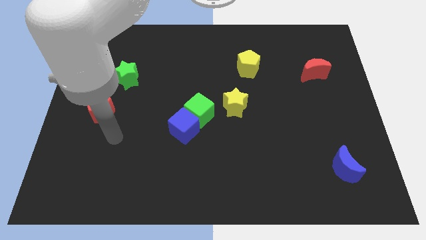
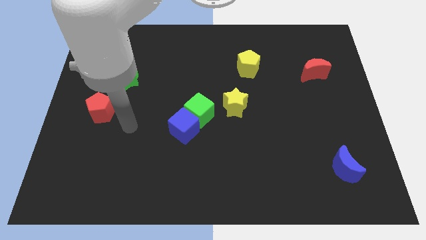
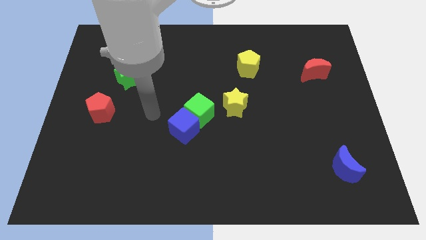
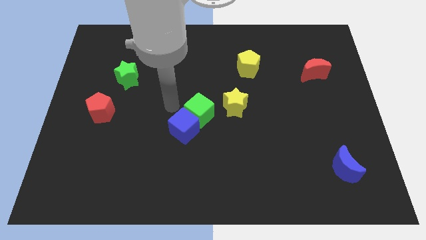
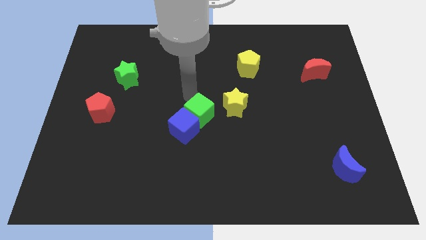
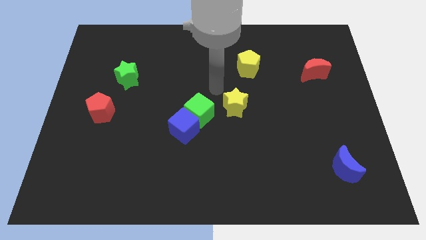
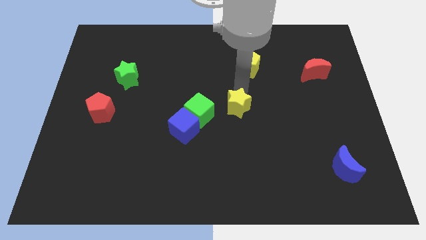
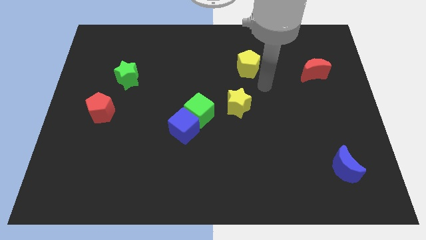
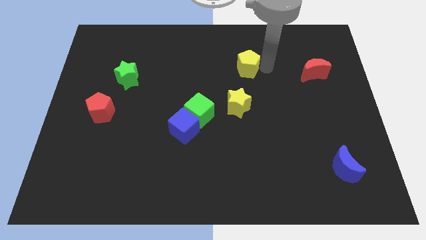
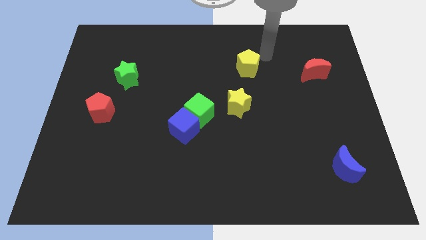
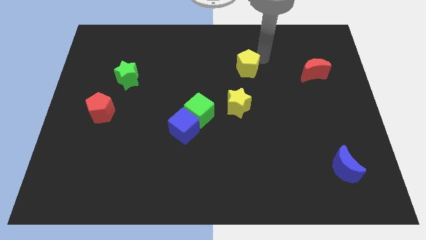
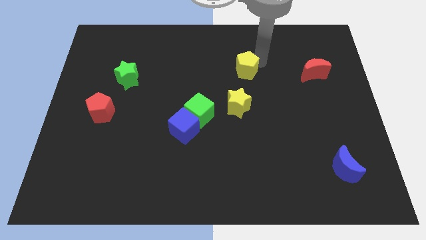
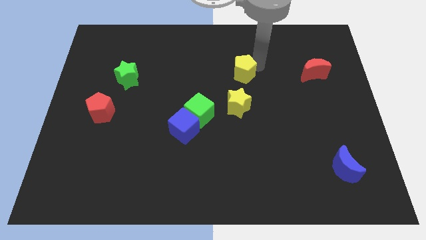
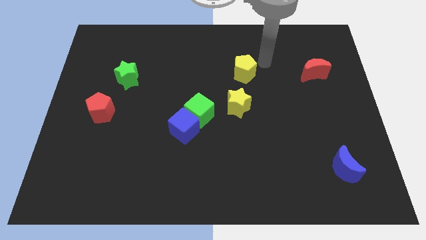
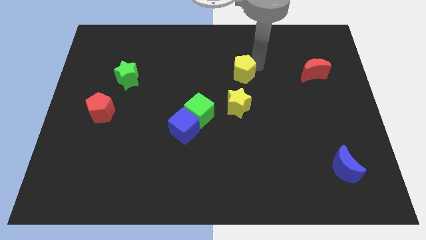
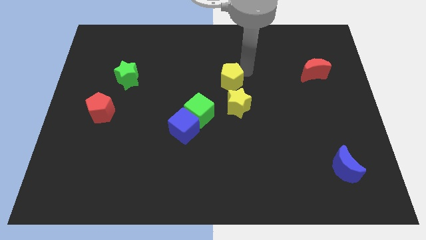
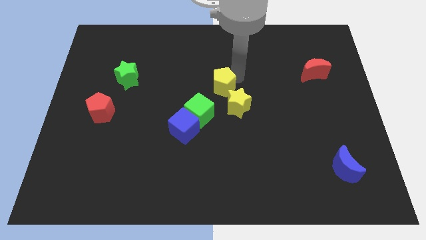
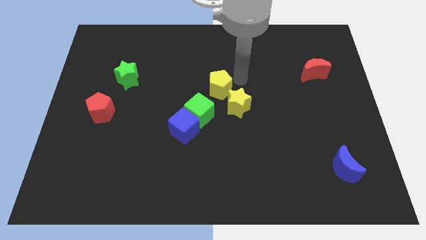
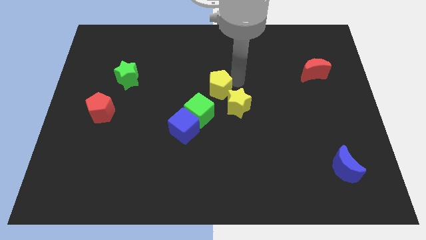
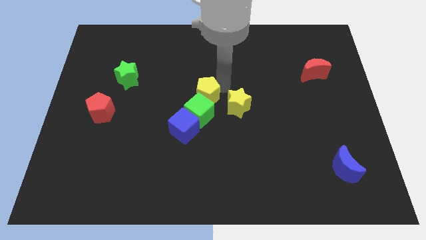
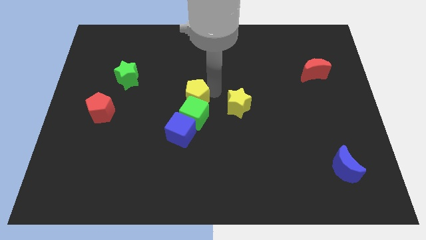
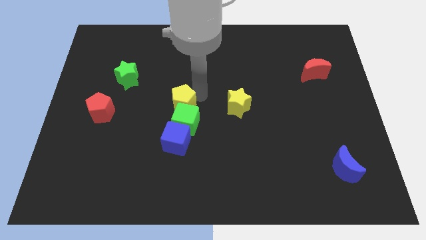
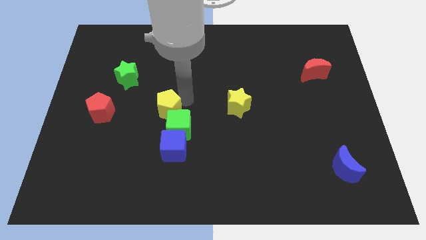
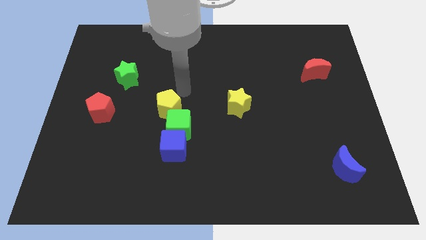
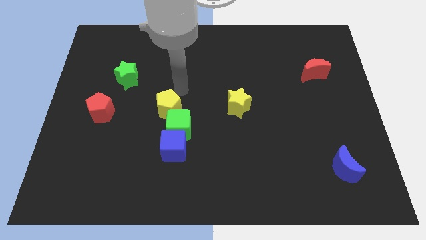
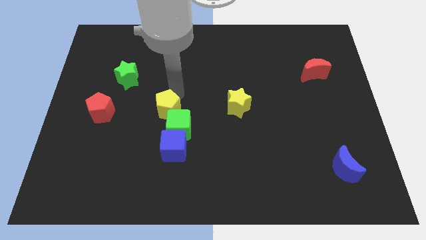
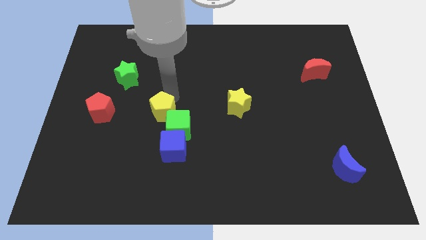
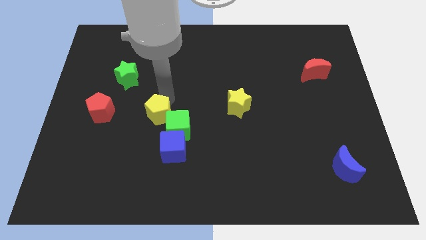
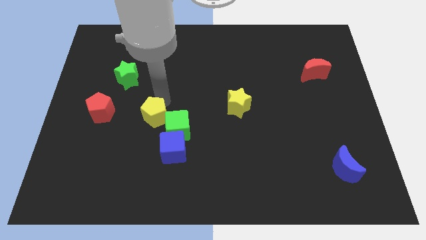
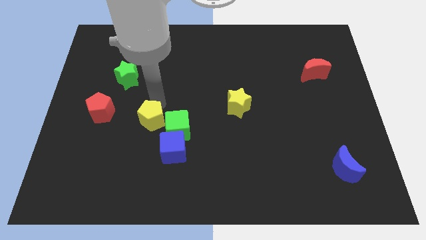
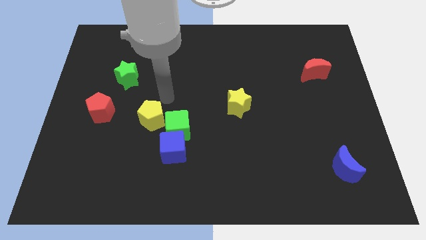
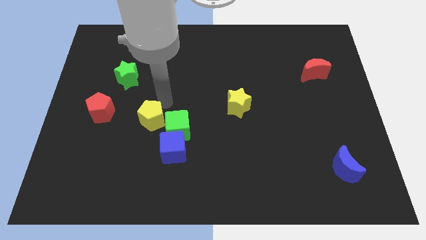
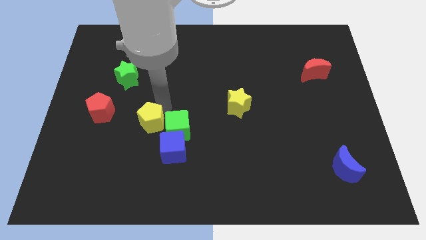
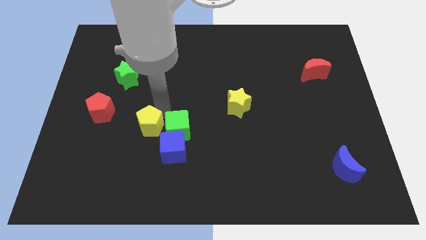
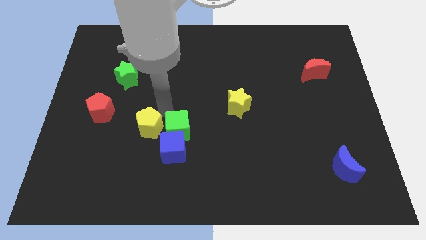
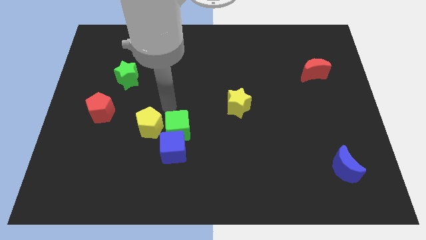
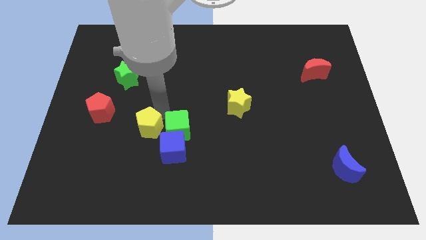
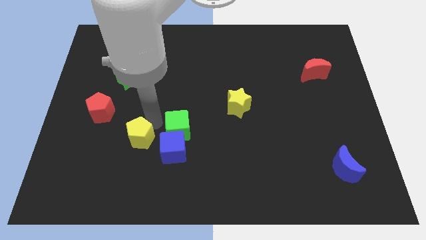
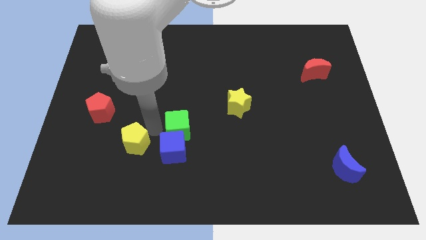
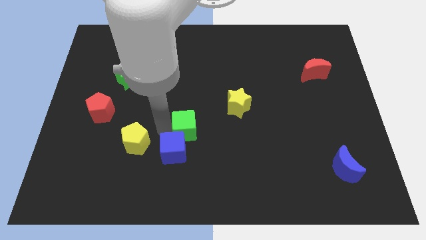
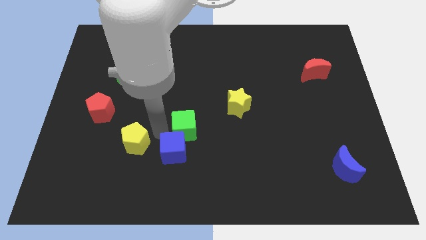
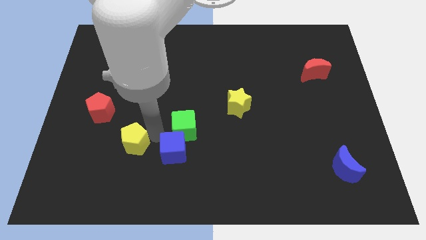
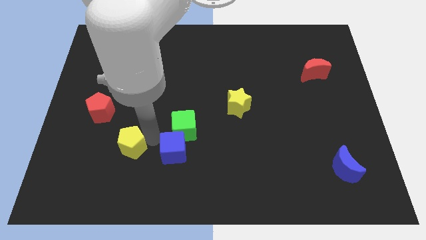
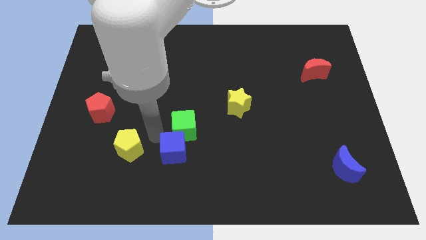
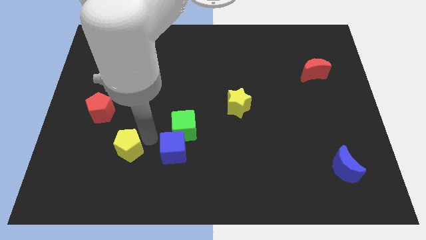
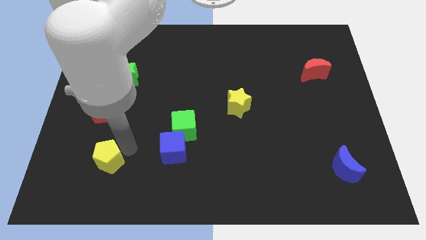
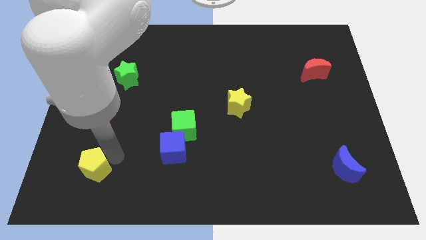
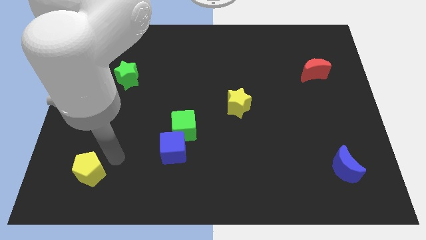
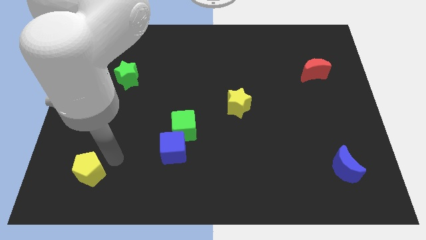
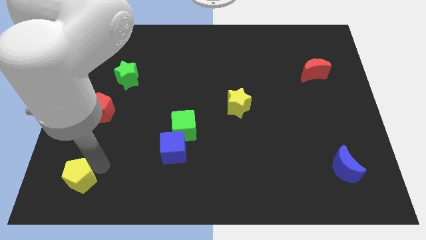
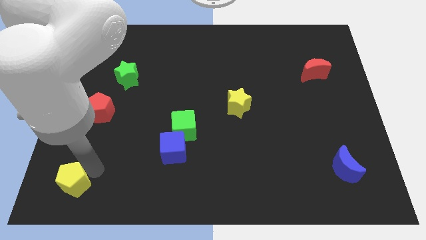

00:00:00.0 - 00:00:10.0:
move the yellow pentagon to the bottom left of the board

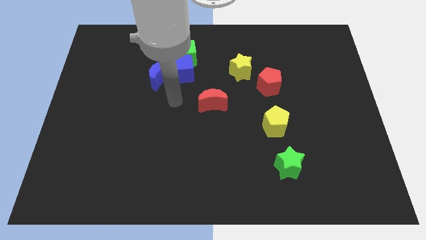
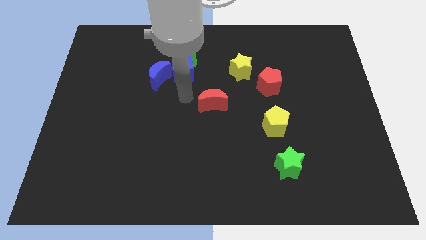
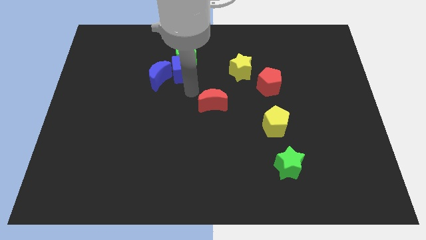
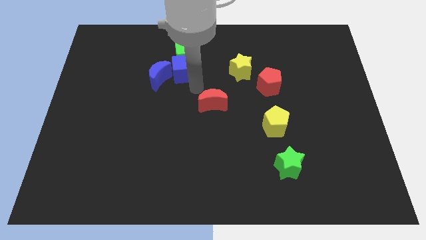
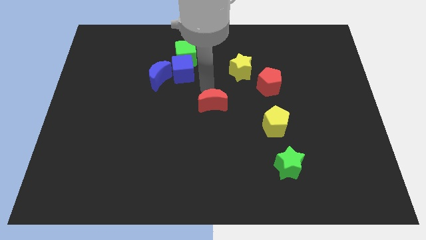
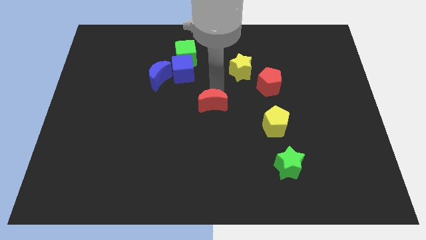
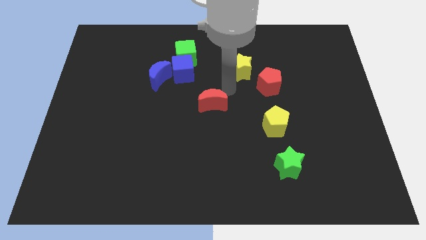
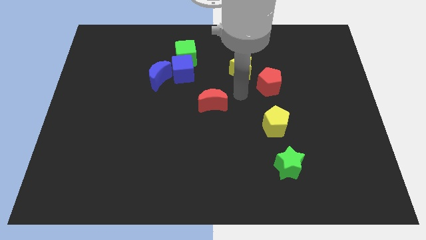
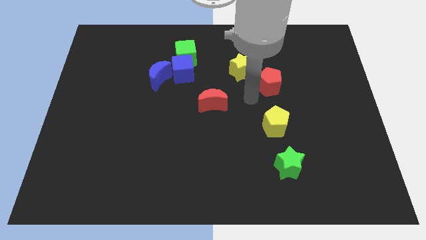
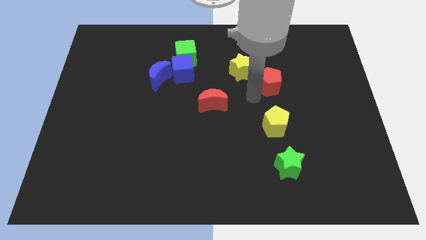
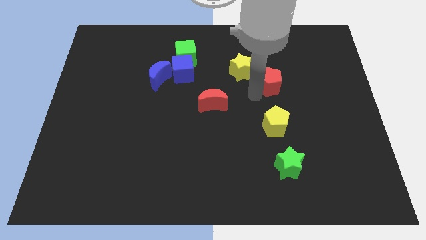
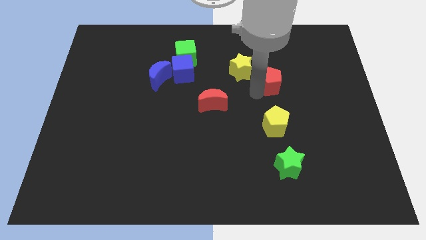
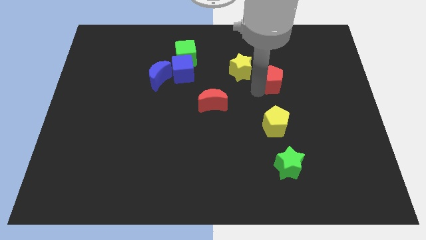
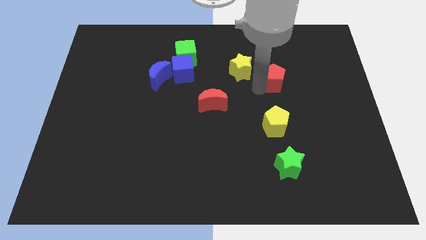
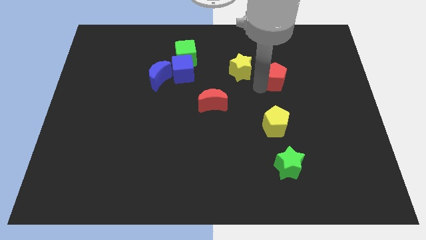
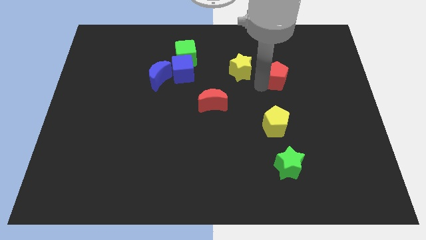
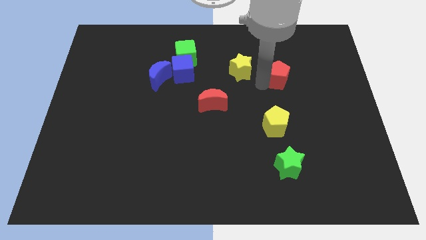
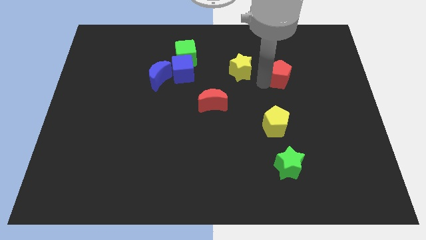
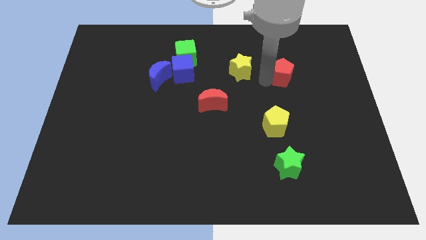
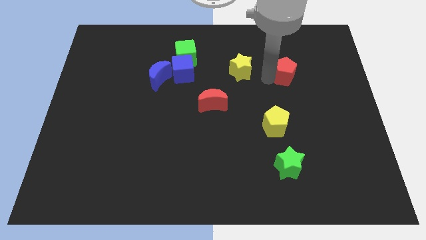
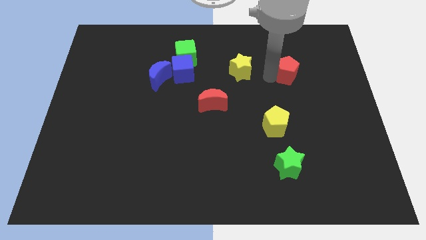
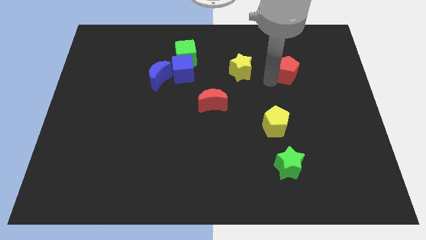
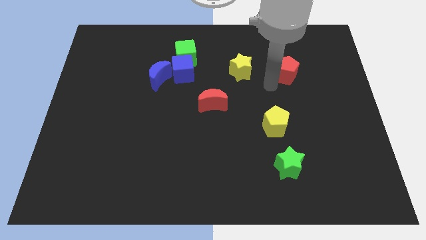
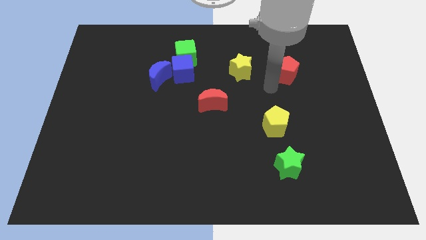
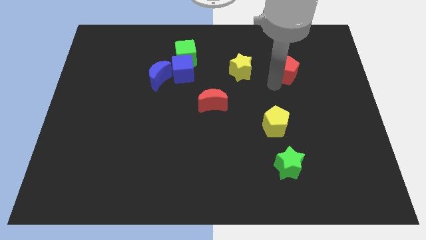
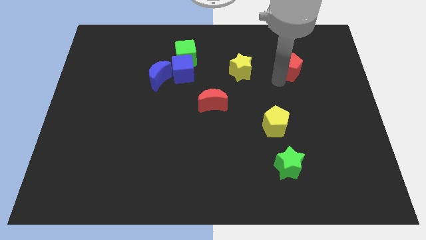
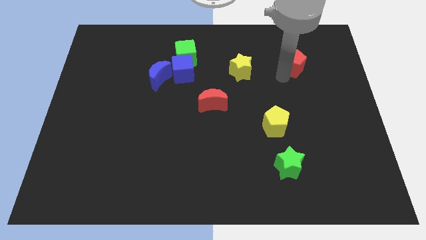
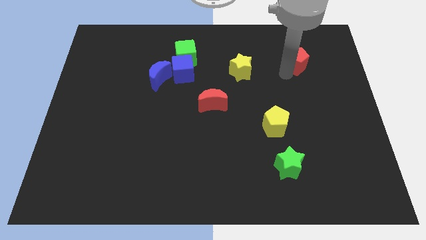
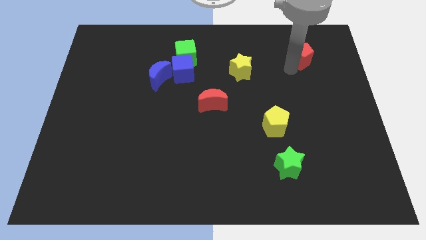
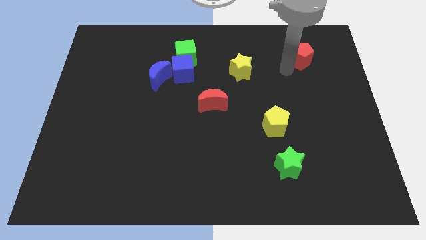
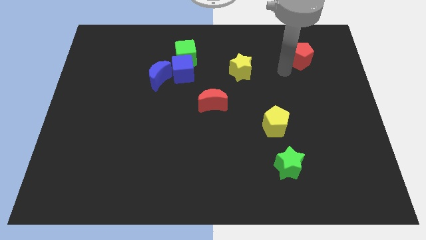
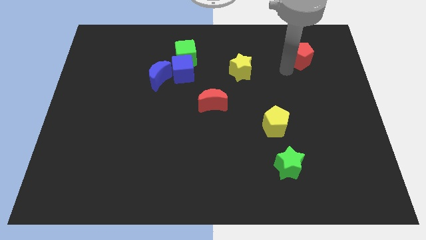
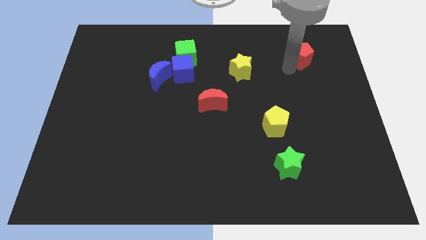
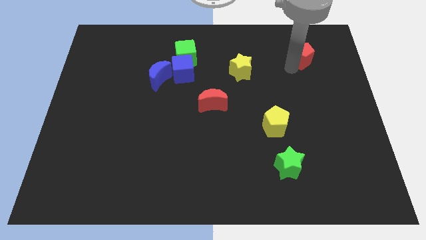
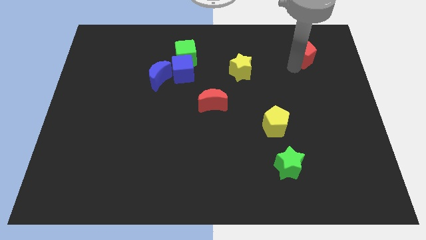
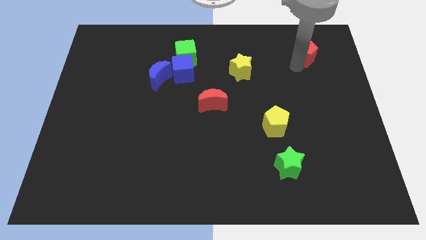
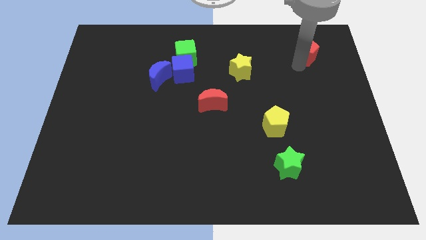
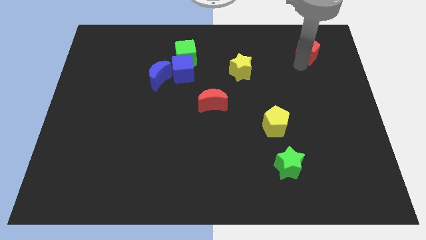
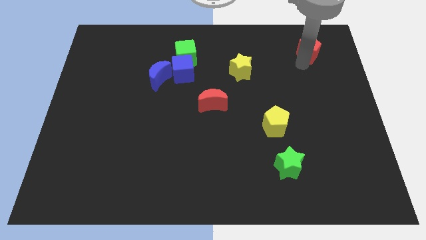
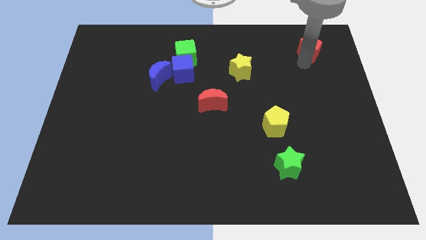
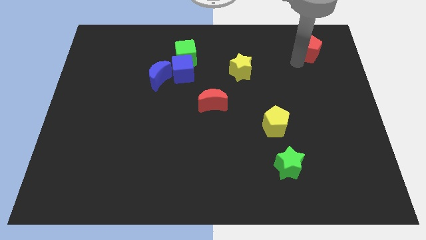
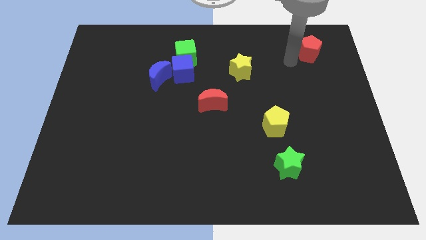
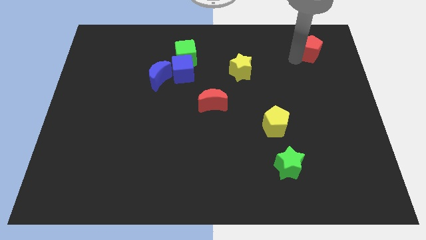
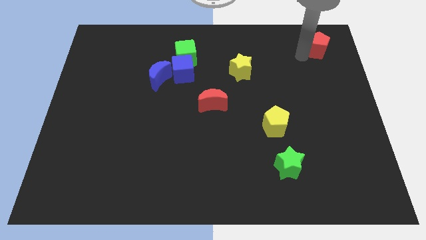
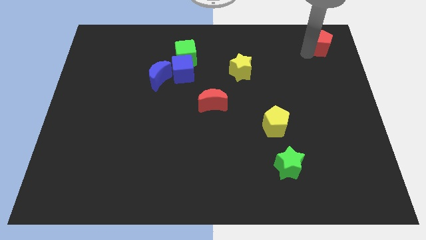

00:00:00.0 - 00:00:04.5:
slide the red pentagon to the top right
